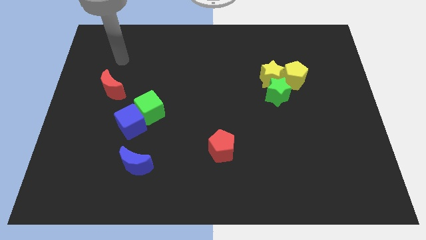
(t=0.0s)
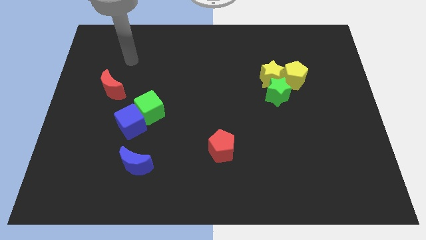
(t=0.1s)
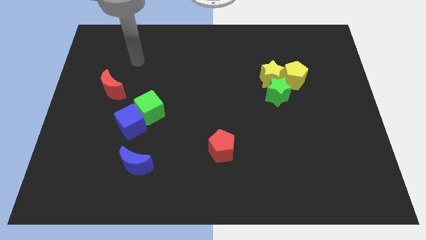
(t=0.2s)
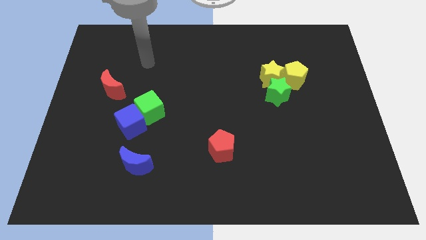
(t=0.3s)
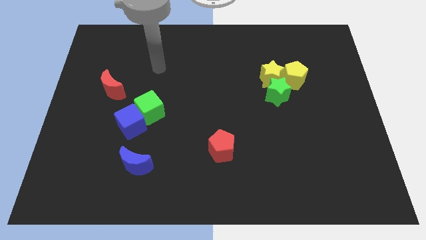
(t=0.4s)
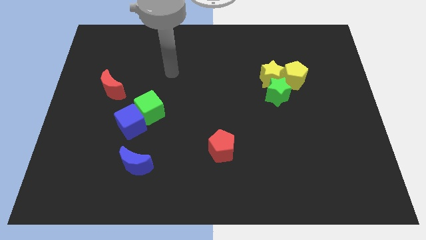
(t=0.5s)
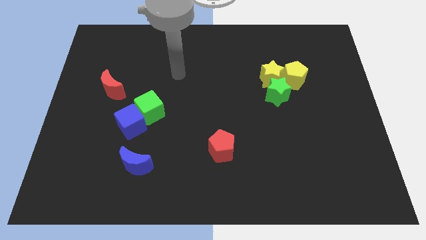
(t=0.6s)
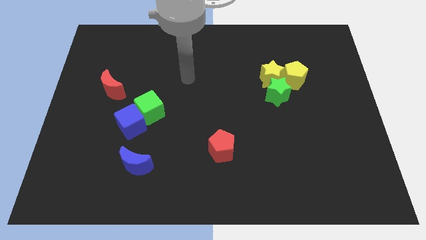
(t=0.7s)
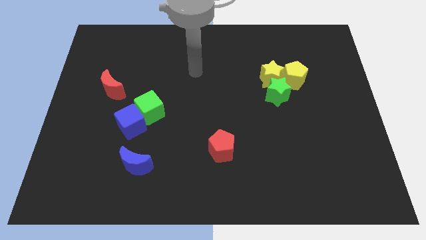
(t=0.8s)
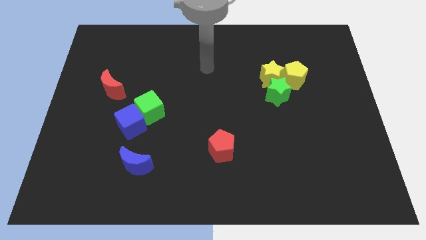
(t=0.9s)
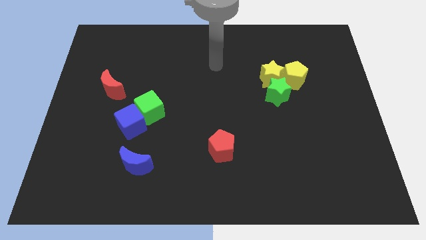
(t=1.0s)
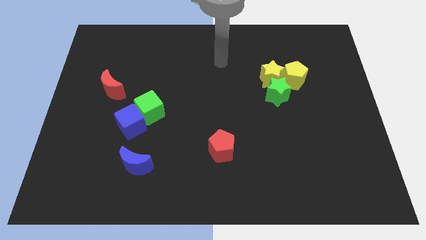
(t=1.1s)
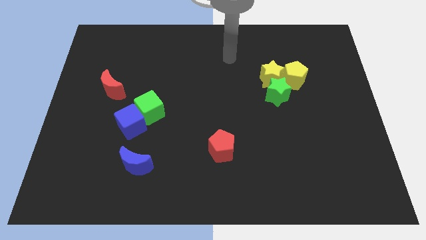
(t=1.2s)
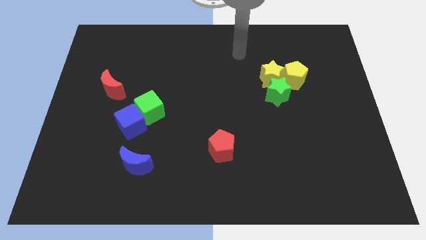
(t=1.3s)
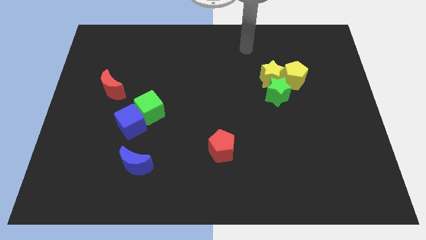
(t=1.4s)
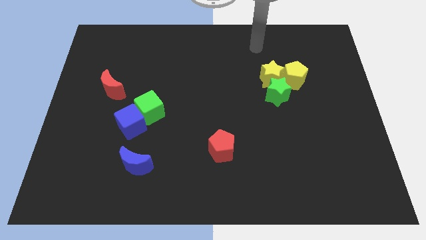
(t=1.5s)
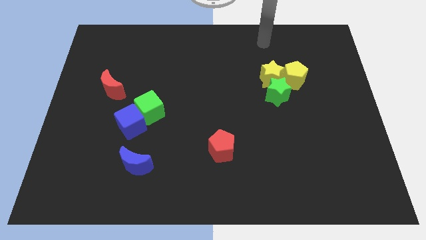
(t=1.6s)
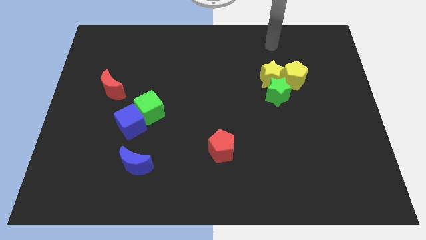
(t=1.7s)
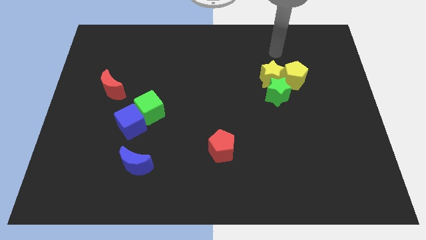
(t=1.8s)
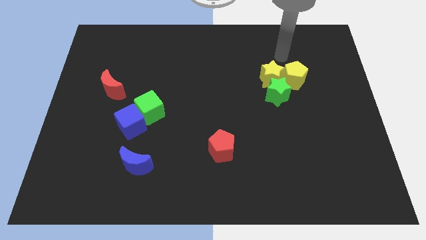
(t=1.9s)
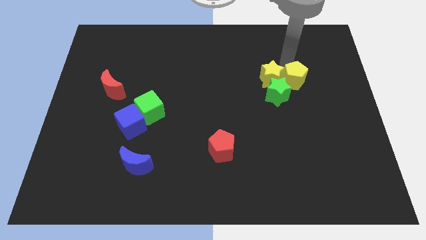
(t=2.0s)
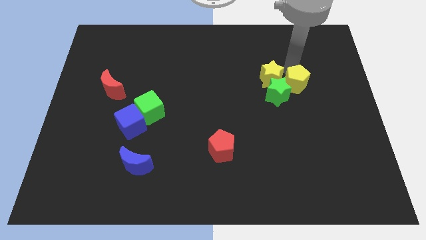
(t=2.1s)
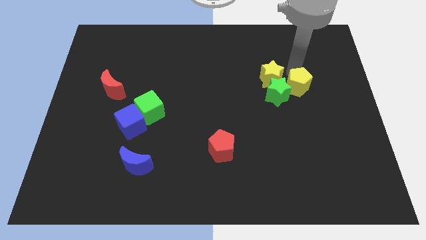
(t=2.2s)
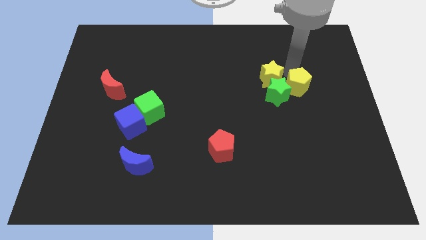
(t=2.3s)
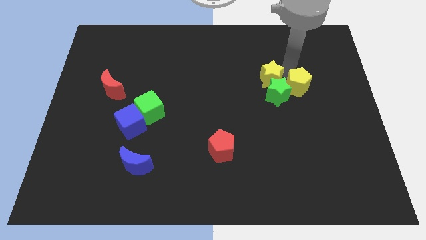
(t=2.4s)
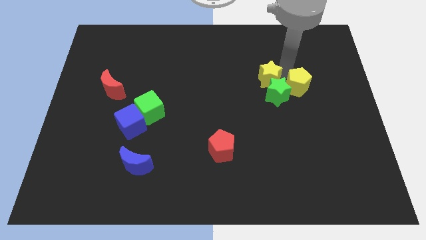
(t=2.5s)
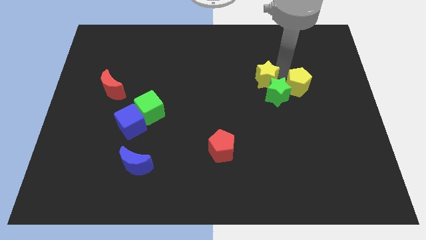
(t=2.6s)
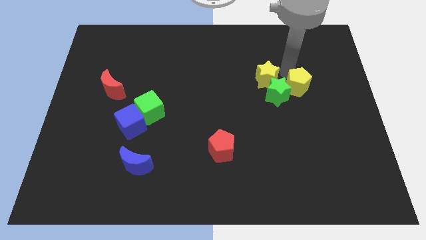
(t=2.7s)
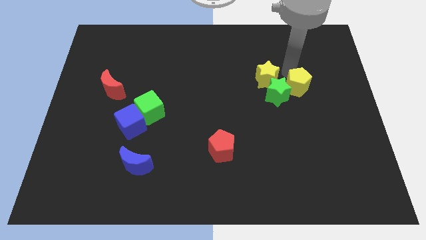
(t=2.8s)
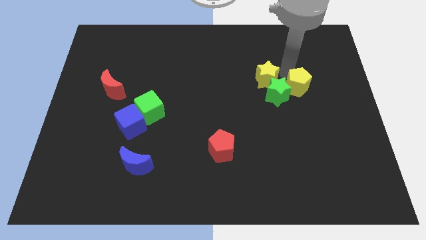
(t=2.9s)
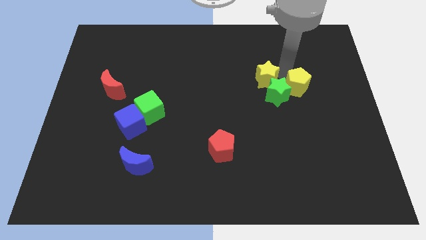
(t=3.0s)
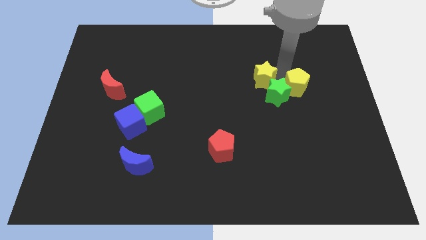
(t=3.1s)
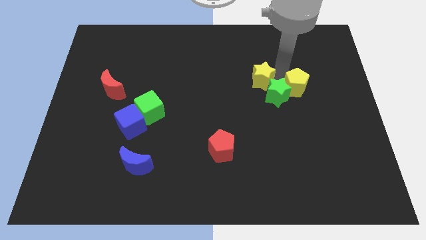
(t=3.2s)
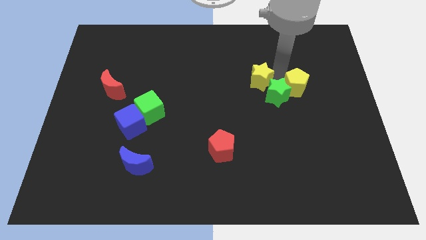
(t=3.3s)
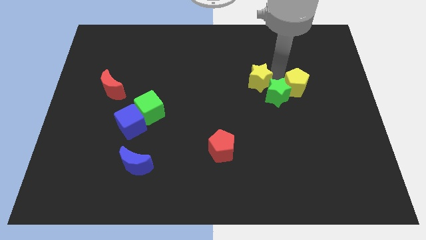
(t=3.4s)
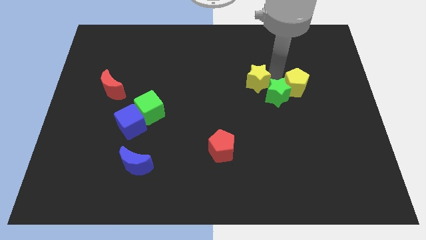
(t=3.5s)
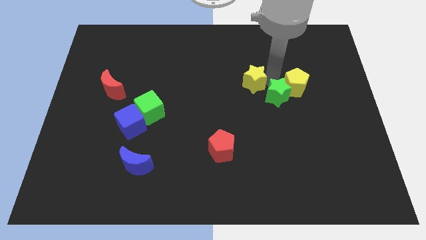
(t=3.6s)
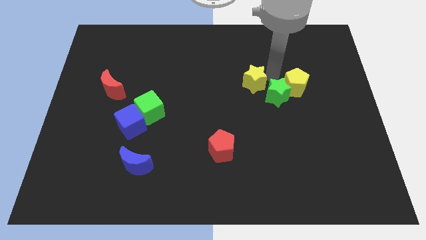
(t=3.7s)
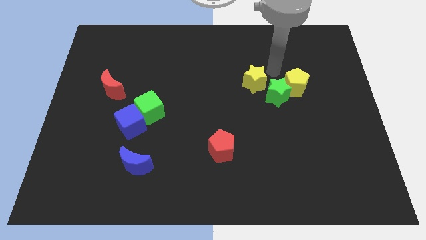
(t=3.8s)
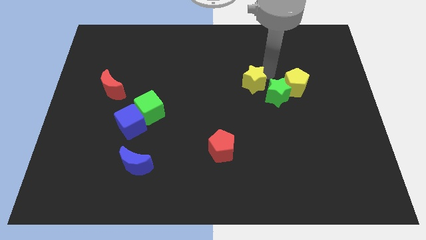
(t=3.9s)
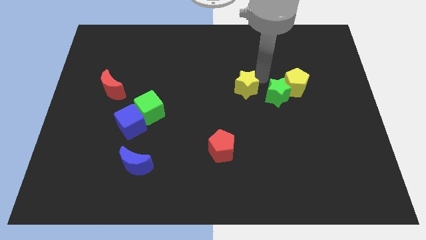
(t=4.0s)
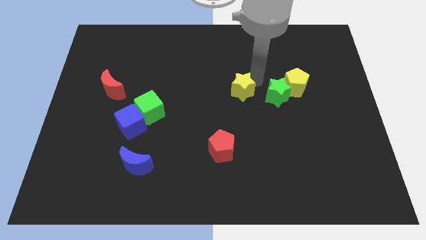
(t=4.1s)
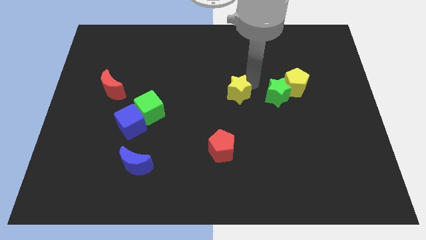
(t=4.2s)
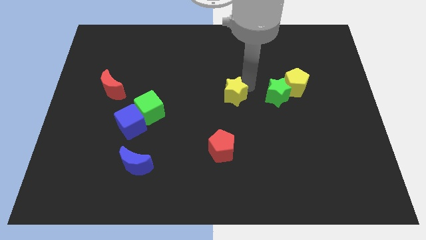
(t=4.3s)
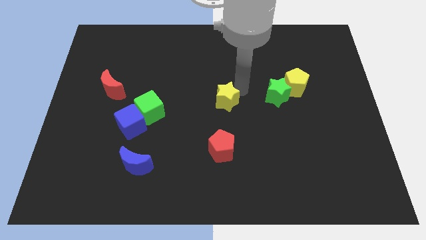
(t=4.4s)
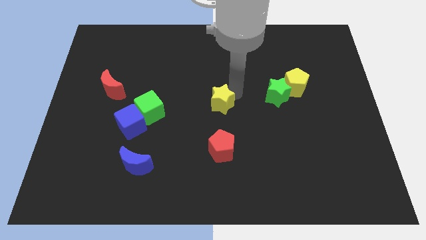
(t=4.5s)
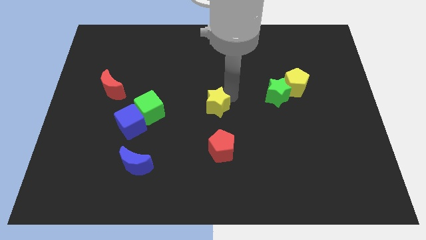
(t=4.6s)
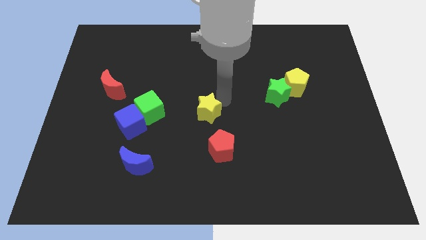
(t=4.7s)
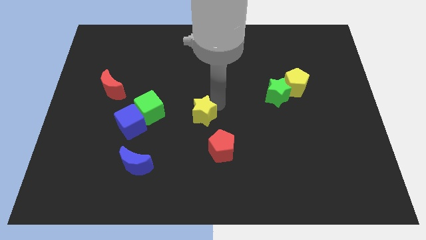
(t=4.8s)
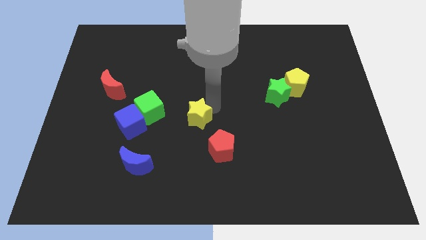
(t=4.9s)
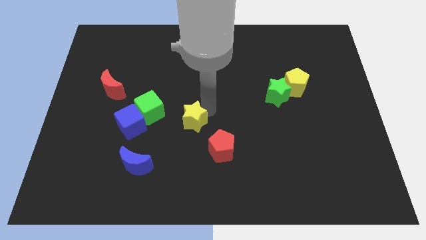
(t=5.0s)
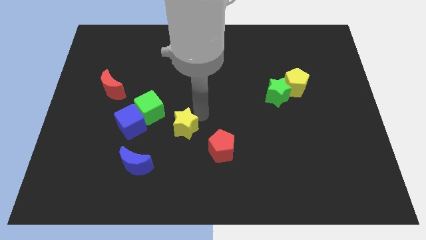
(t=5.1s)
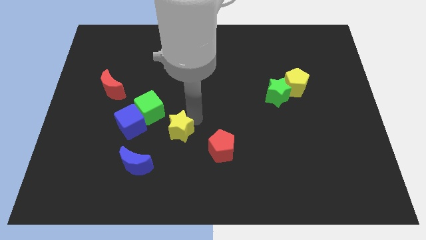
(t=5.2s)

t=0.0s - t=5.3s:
push the yellow star to the top right of the blue moon

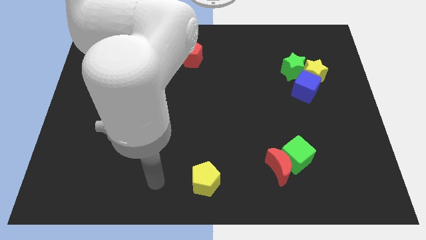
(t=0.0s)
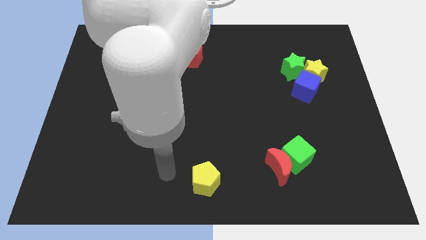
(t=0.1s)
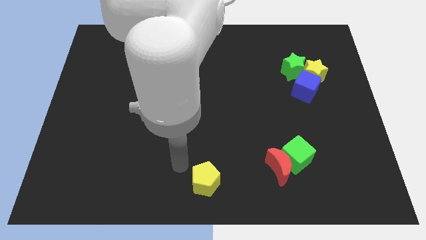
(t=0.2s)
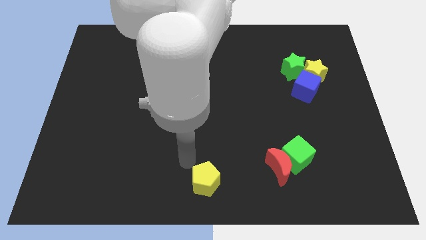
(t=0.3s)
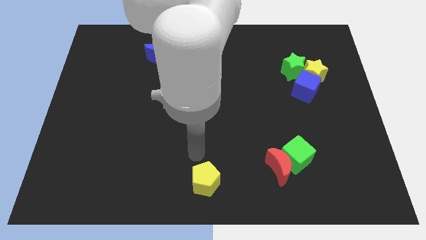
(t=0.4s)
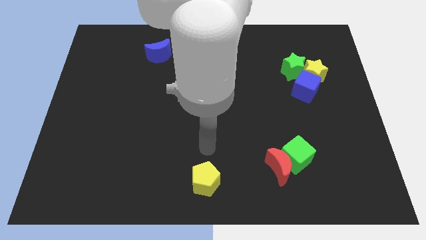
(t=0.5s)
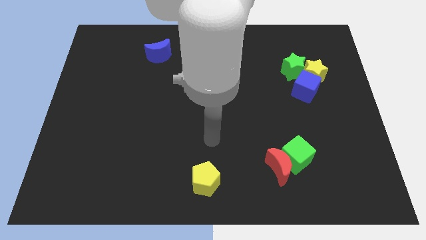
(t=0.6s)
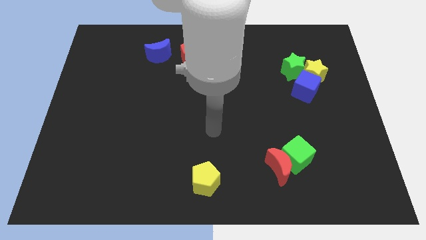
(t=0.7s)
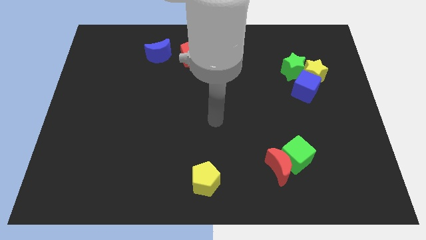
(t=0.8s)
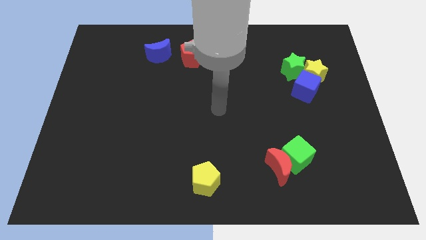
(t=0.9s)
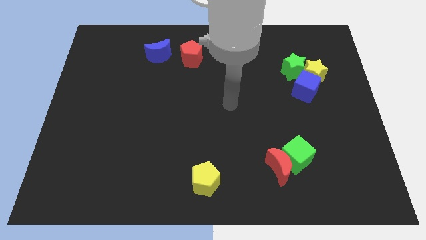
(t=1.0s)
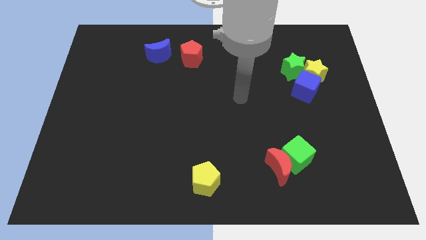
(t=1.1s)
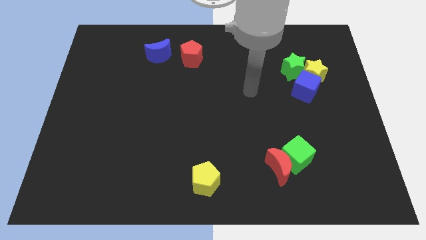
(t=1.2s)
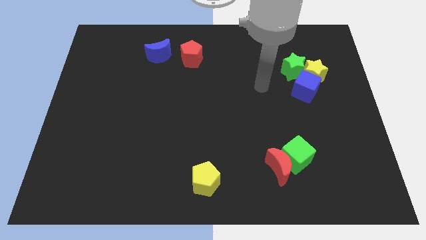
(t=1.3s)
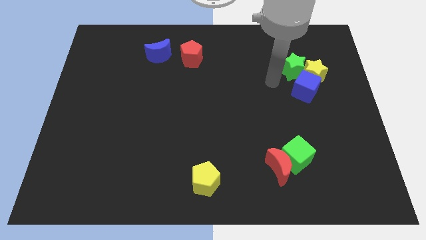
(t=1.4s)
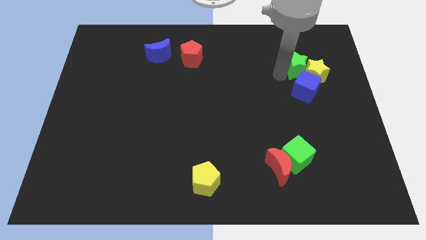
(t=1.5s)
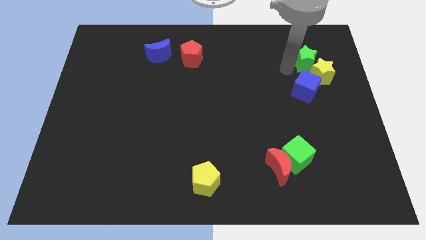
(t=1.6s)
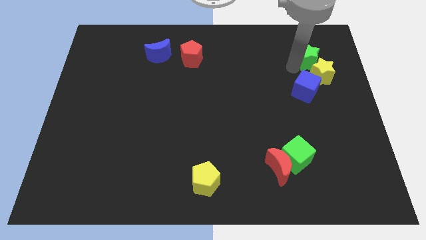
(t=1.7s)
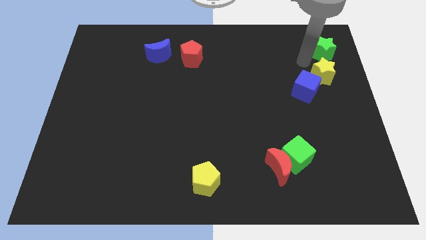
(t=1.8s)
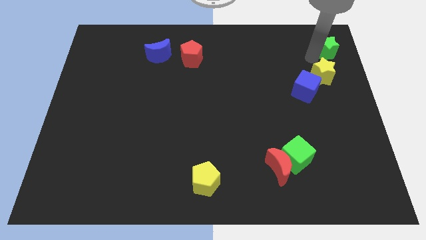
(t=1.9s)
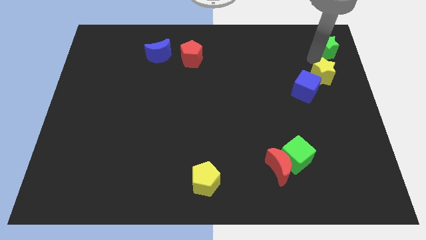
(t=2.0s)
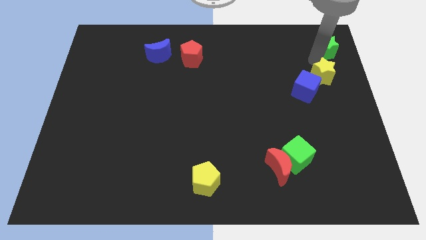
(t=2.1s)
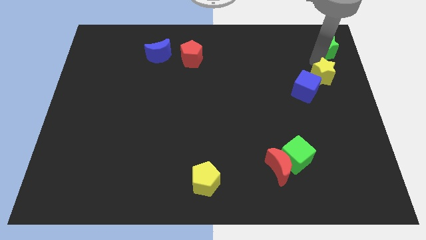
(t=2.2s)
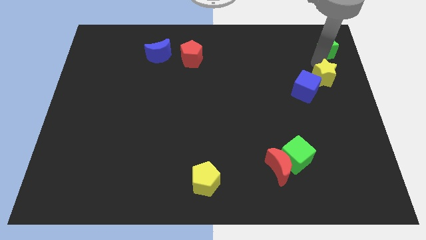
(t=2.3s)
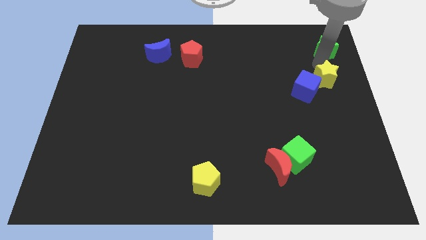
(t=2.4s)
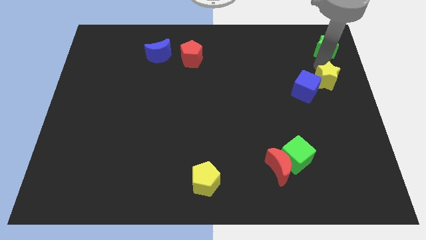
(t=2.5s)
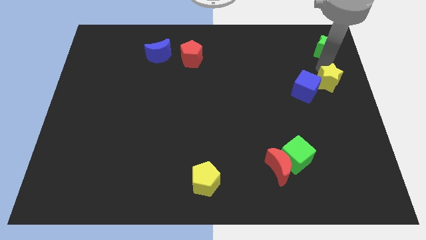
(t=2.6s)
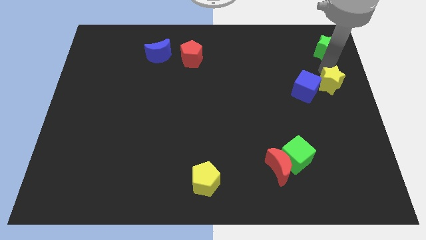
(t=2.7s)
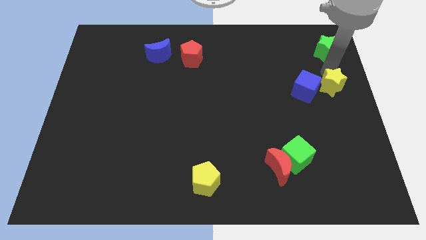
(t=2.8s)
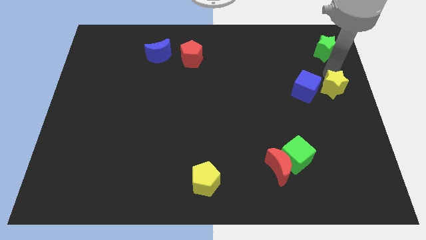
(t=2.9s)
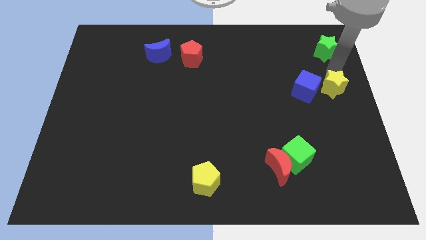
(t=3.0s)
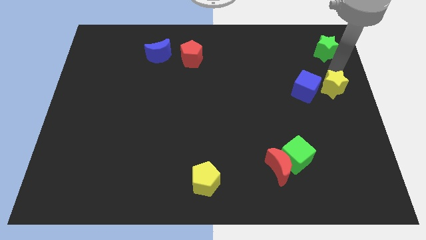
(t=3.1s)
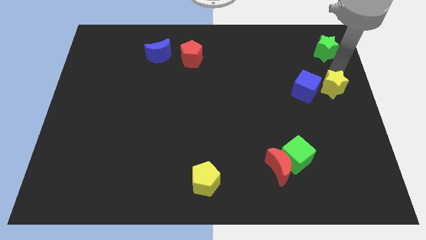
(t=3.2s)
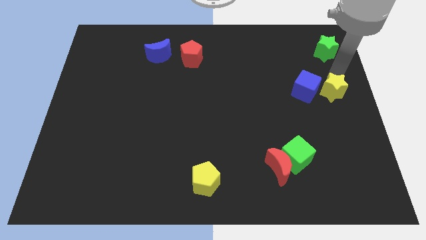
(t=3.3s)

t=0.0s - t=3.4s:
move the yellow star diagonally down and to the right of the blue cube
